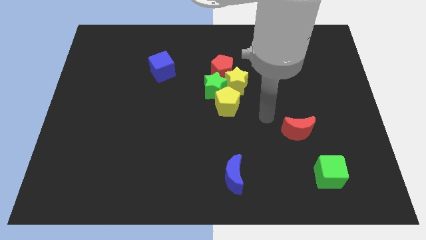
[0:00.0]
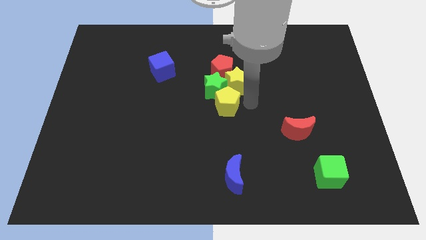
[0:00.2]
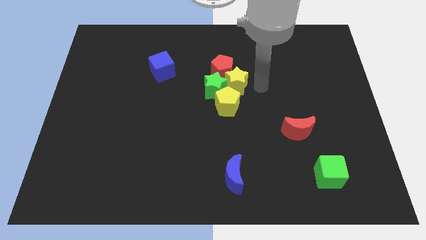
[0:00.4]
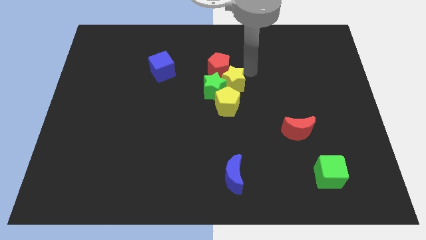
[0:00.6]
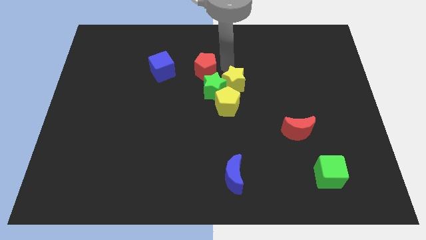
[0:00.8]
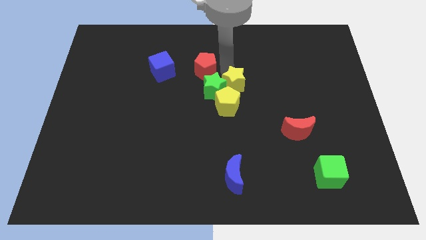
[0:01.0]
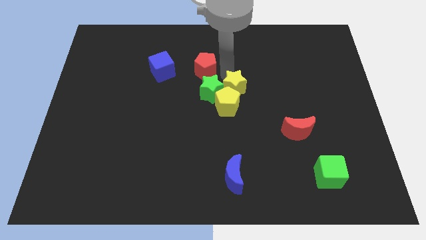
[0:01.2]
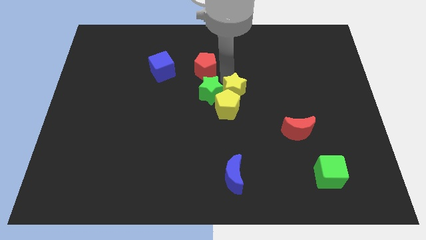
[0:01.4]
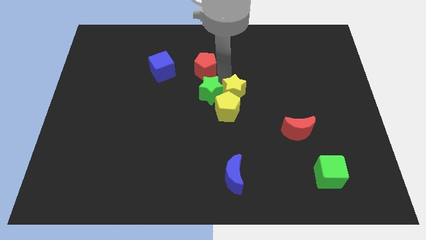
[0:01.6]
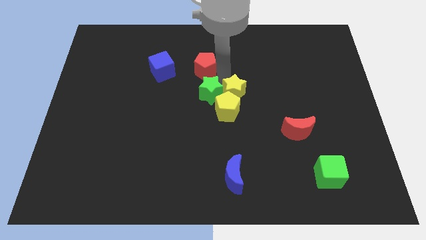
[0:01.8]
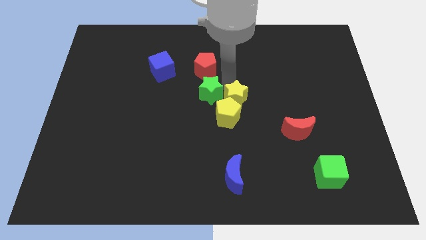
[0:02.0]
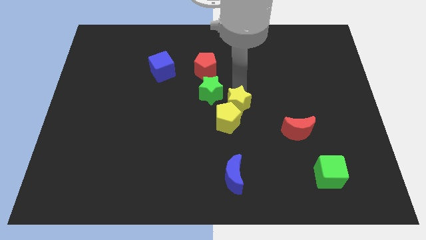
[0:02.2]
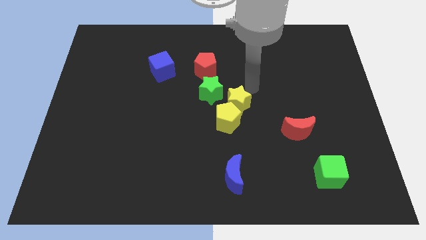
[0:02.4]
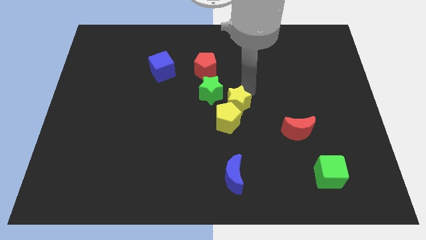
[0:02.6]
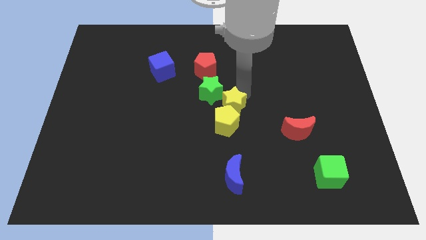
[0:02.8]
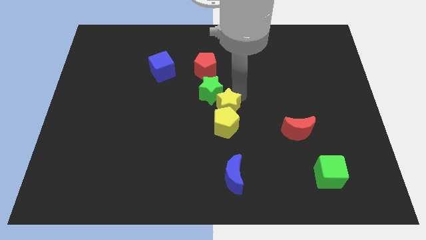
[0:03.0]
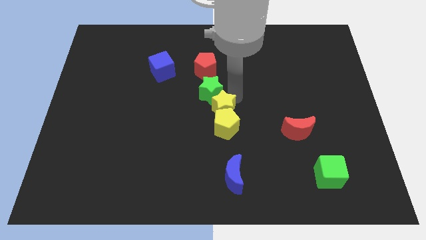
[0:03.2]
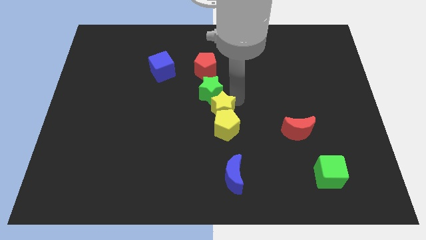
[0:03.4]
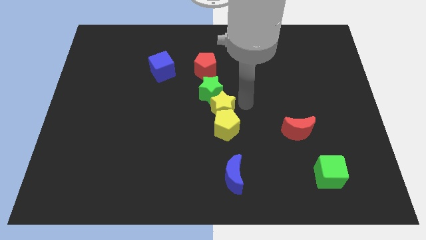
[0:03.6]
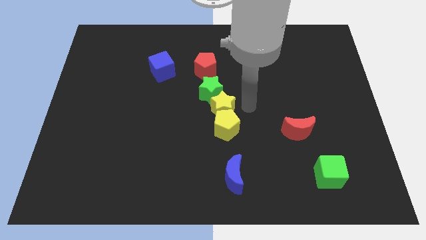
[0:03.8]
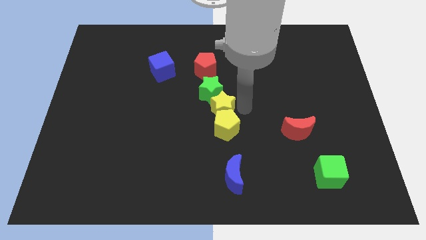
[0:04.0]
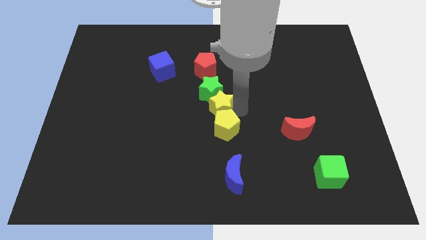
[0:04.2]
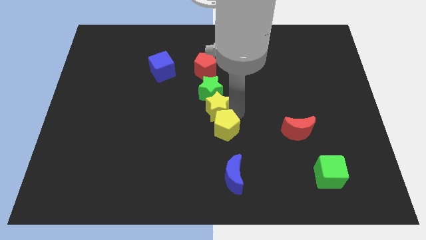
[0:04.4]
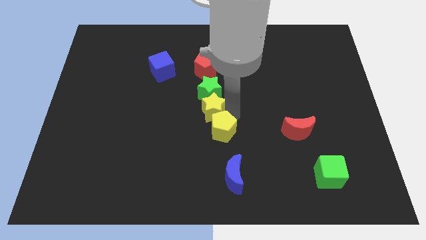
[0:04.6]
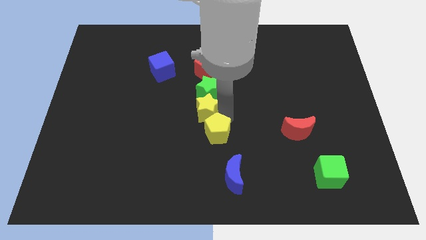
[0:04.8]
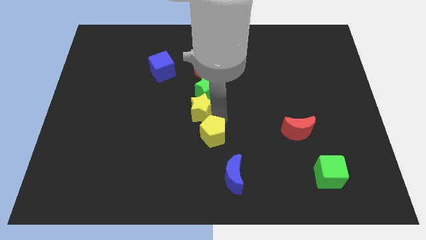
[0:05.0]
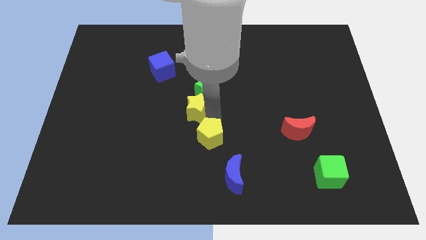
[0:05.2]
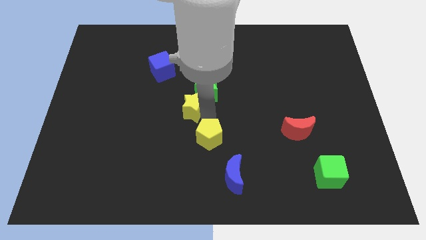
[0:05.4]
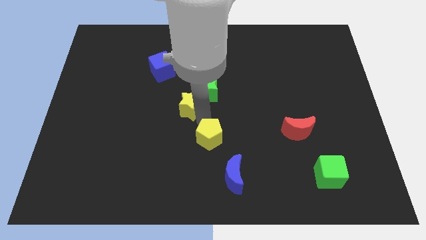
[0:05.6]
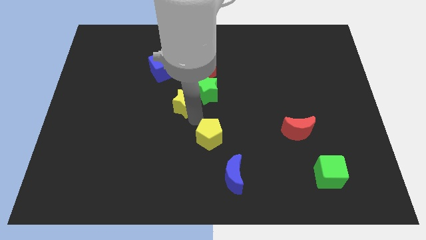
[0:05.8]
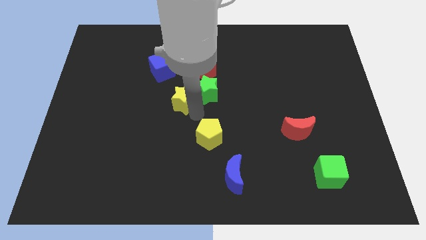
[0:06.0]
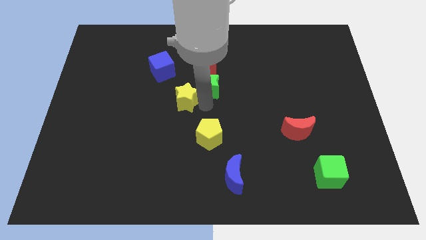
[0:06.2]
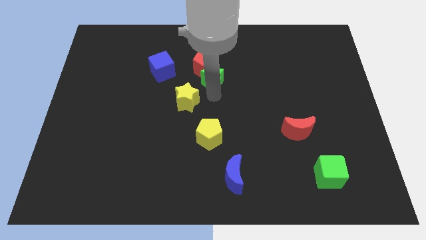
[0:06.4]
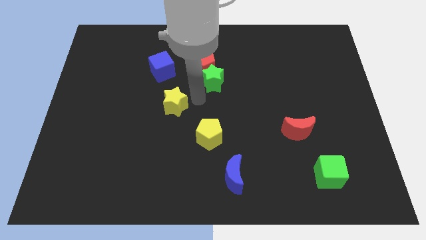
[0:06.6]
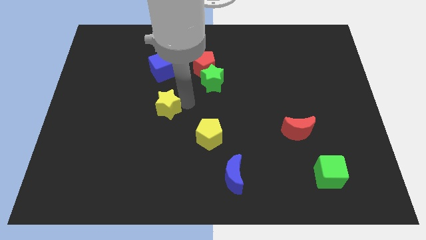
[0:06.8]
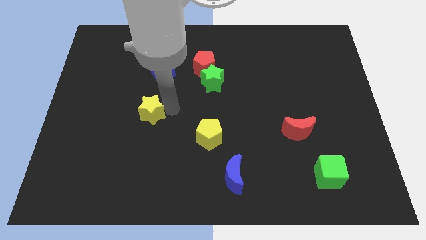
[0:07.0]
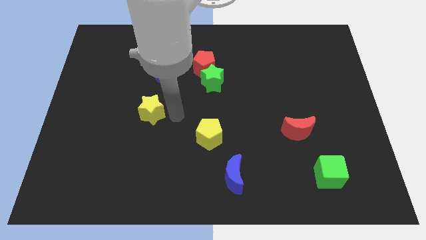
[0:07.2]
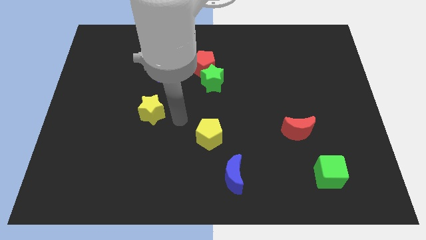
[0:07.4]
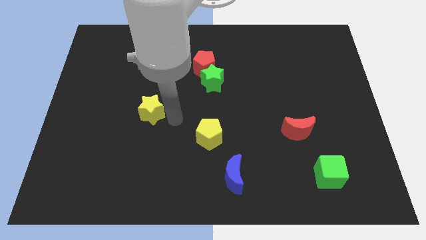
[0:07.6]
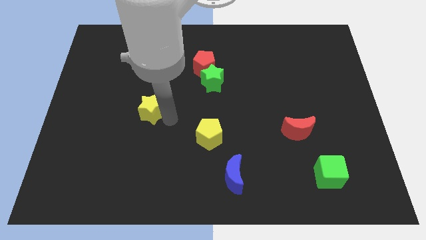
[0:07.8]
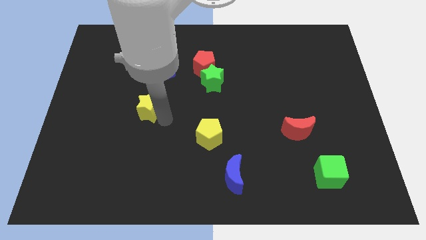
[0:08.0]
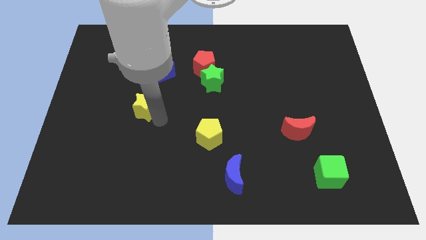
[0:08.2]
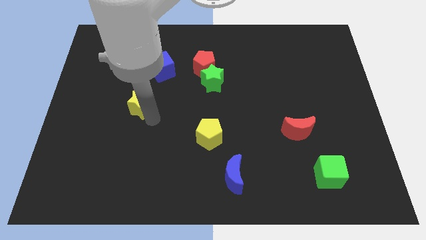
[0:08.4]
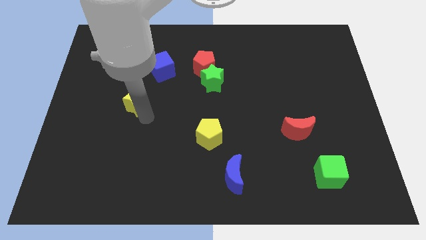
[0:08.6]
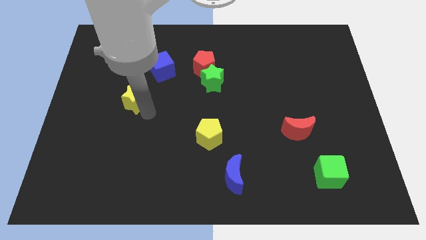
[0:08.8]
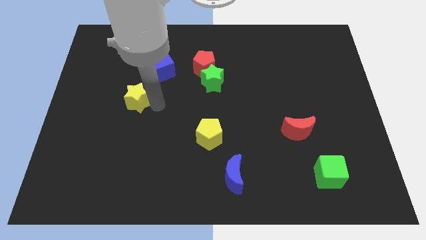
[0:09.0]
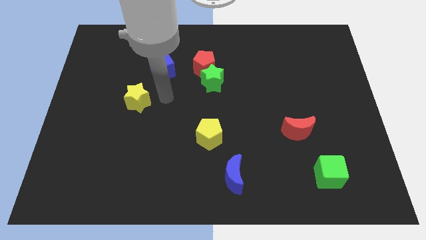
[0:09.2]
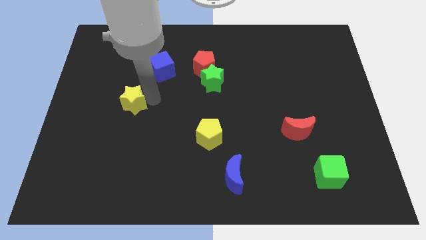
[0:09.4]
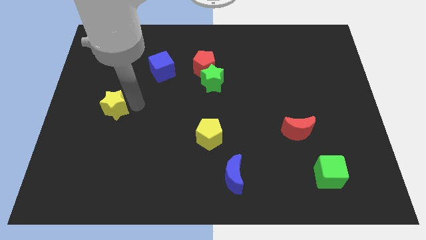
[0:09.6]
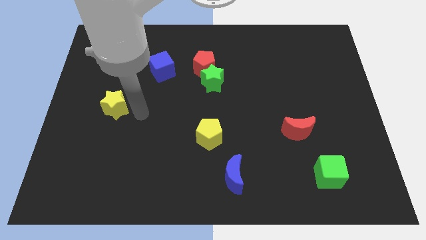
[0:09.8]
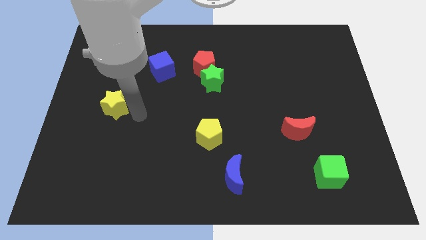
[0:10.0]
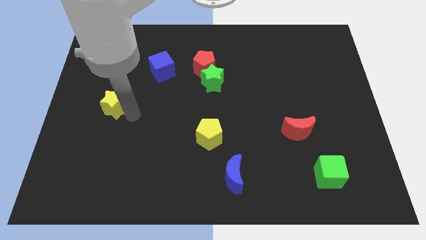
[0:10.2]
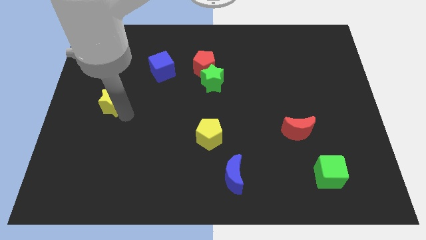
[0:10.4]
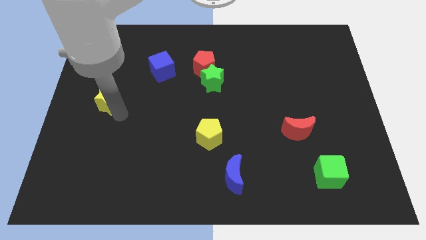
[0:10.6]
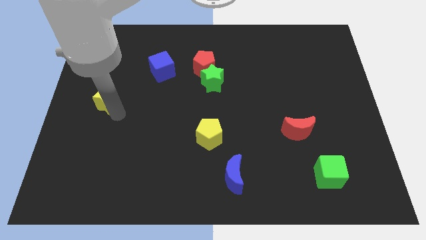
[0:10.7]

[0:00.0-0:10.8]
push the yellow star to the left side of the board

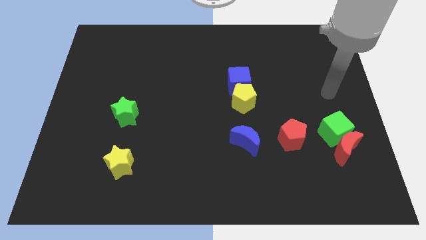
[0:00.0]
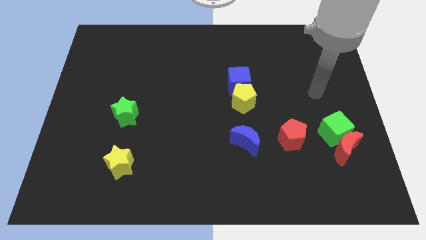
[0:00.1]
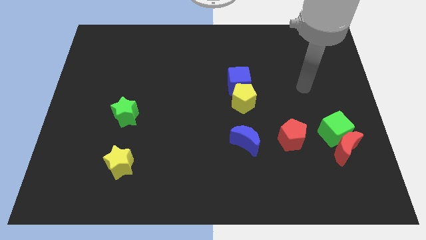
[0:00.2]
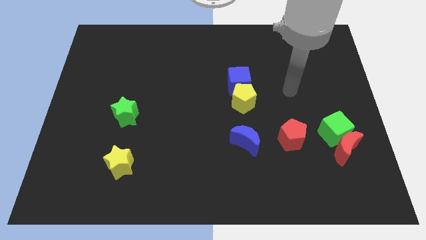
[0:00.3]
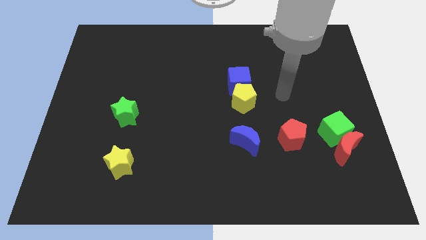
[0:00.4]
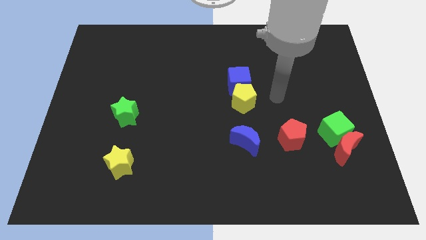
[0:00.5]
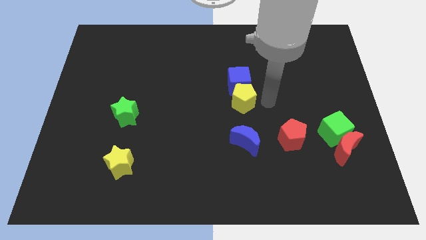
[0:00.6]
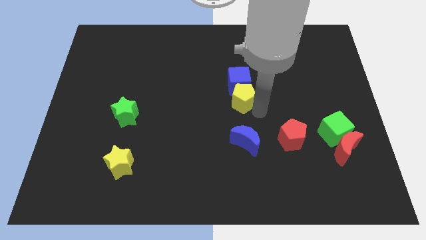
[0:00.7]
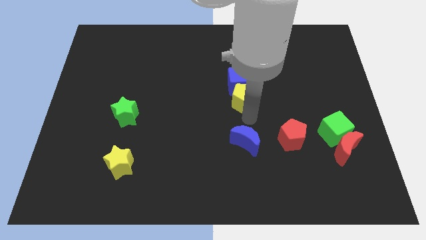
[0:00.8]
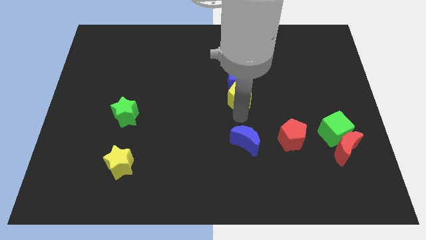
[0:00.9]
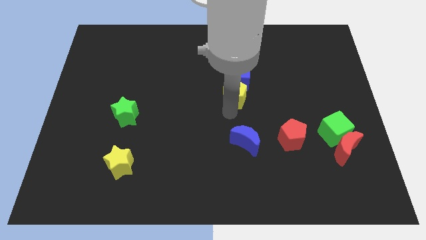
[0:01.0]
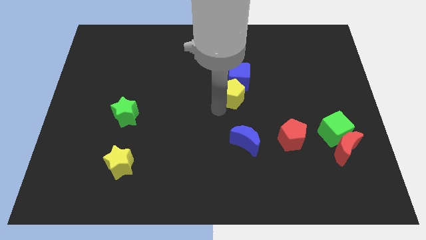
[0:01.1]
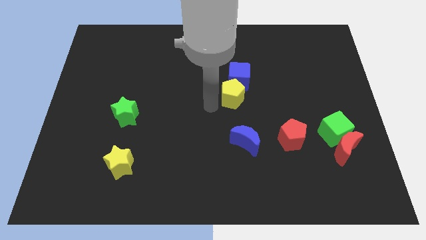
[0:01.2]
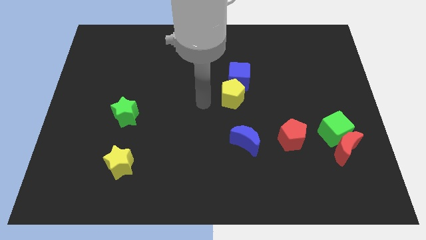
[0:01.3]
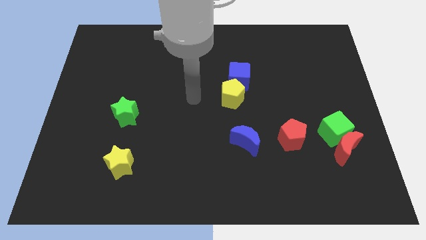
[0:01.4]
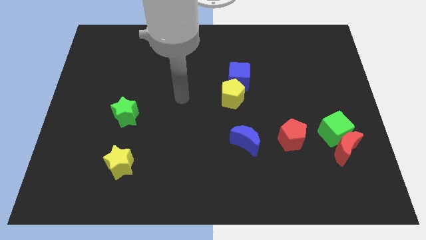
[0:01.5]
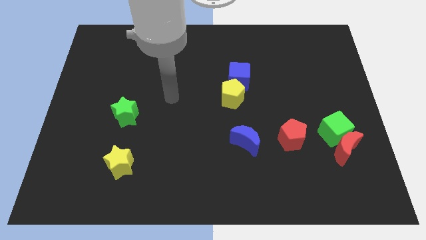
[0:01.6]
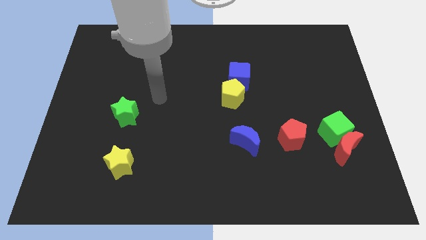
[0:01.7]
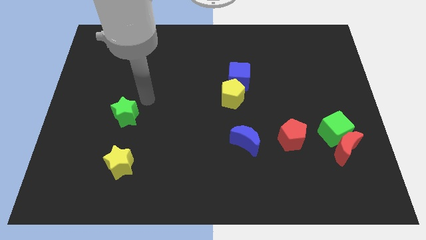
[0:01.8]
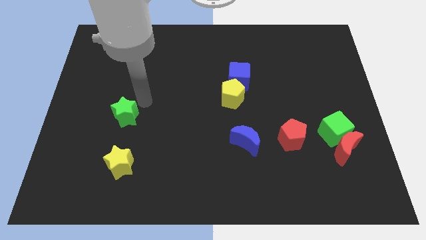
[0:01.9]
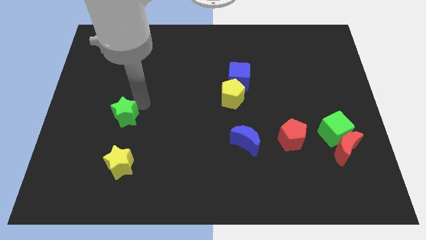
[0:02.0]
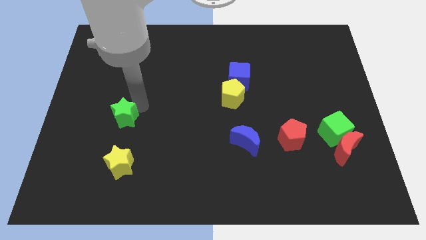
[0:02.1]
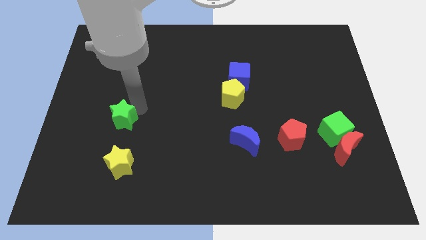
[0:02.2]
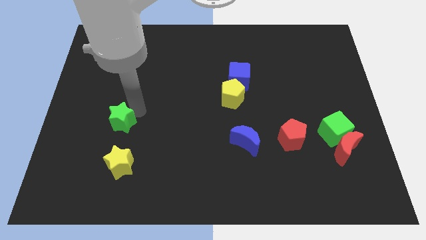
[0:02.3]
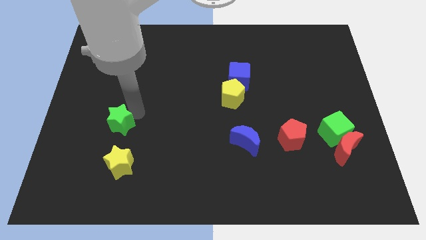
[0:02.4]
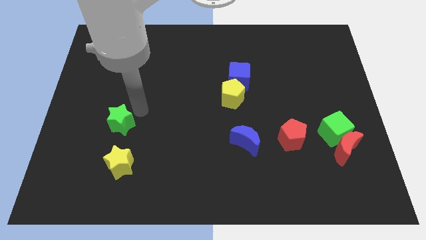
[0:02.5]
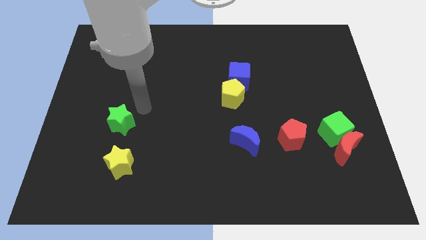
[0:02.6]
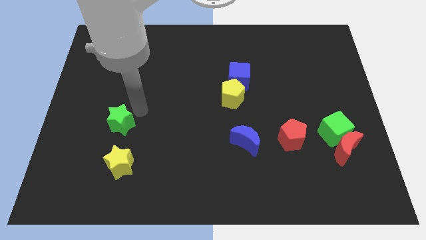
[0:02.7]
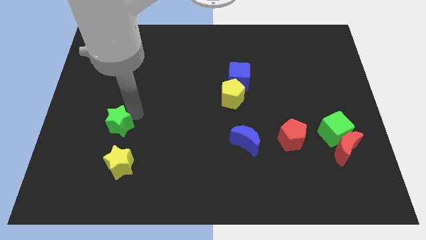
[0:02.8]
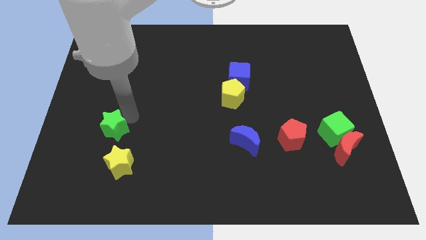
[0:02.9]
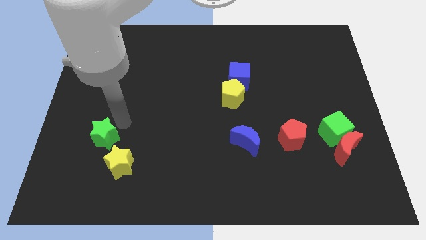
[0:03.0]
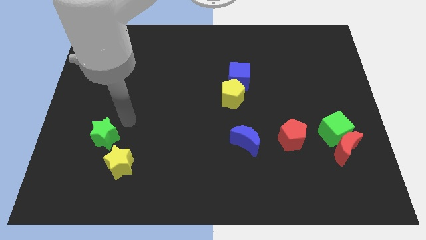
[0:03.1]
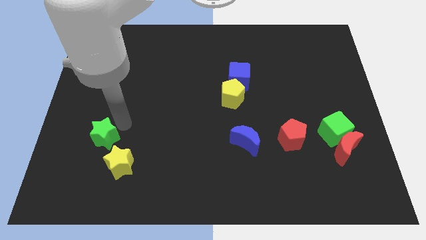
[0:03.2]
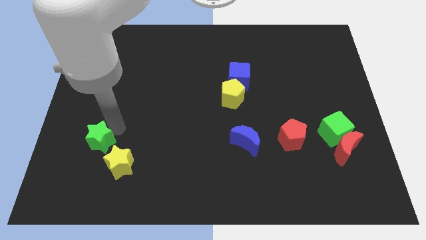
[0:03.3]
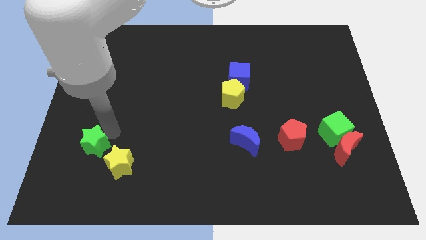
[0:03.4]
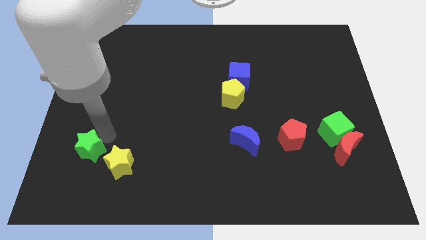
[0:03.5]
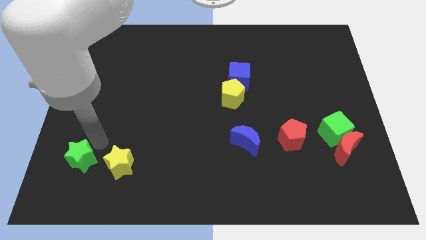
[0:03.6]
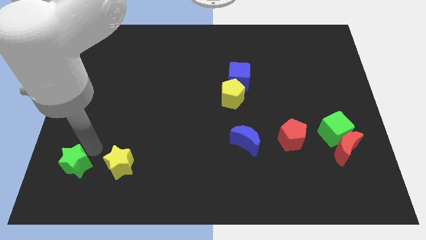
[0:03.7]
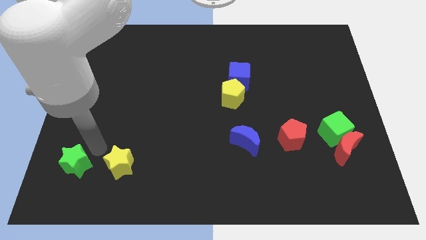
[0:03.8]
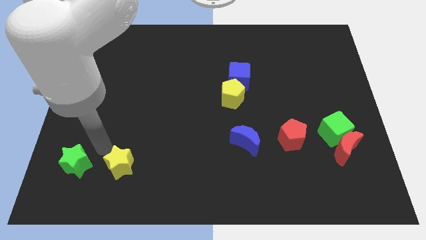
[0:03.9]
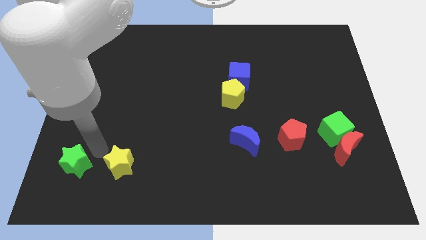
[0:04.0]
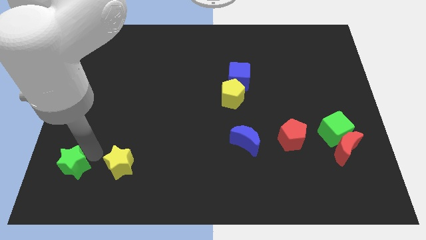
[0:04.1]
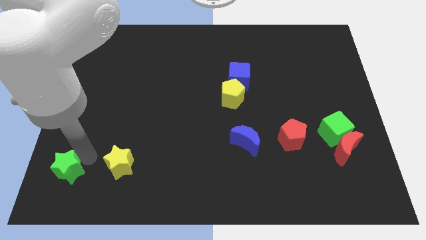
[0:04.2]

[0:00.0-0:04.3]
move the green star to the bottom left corner
